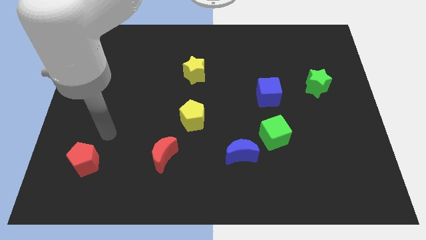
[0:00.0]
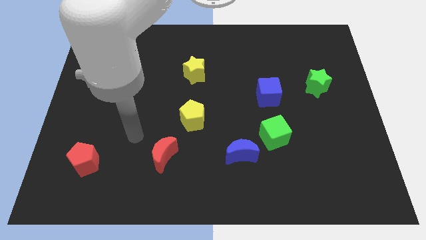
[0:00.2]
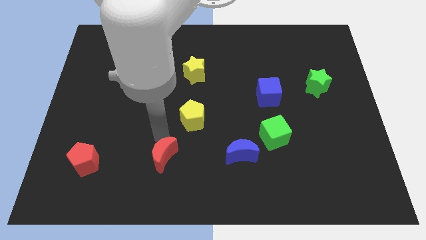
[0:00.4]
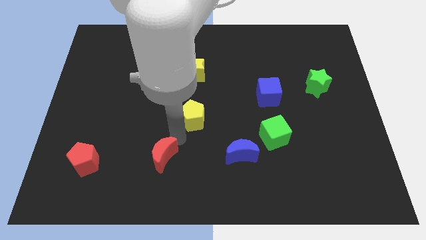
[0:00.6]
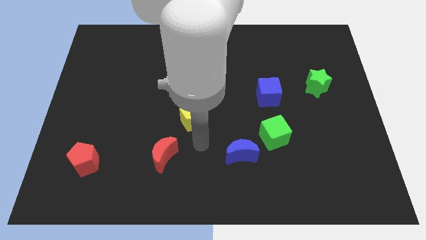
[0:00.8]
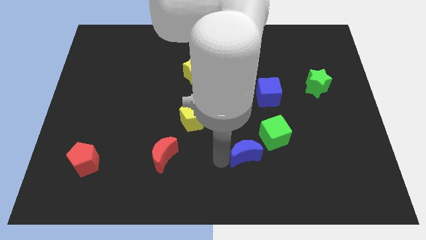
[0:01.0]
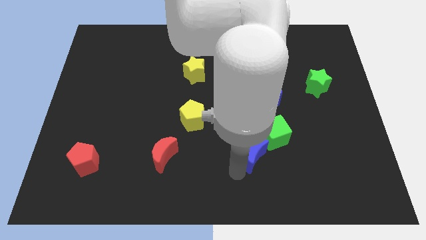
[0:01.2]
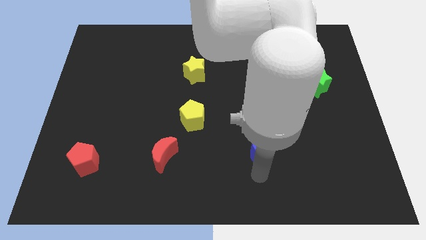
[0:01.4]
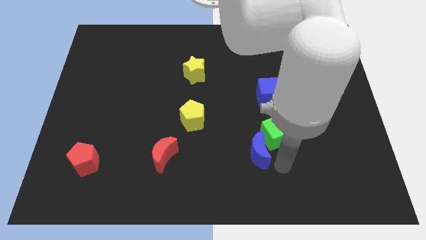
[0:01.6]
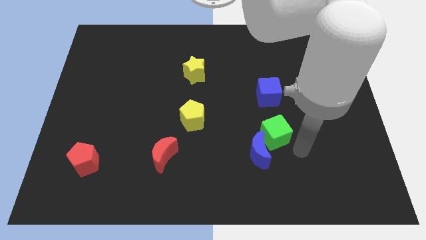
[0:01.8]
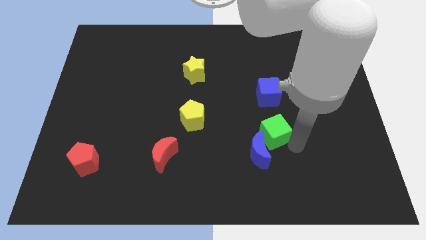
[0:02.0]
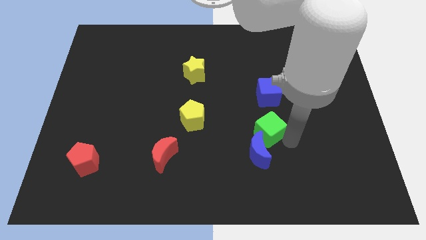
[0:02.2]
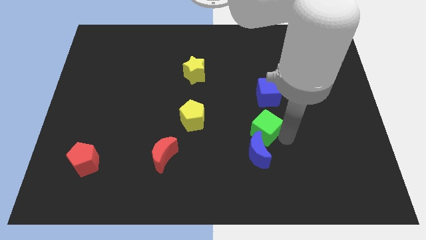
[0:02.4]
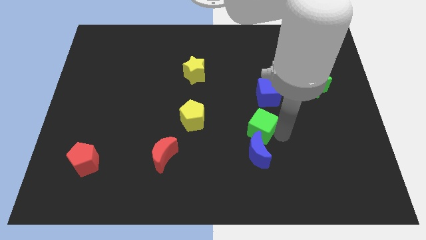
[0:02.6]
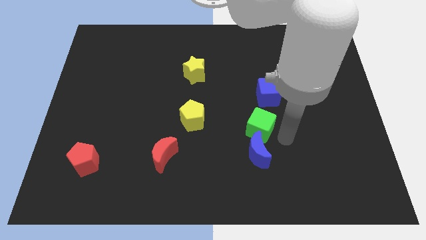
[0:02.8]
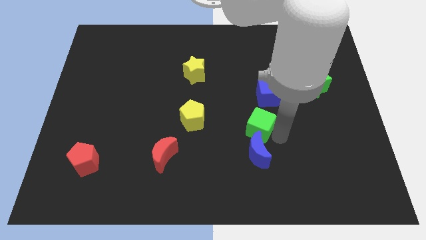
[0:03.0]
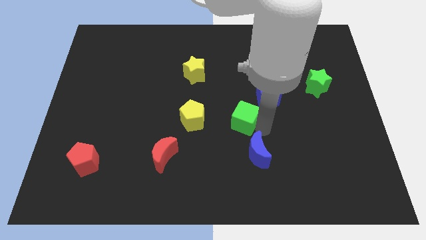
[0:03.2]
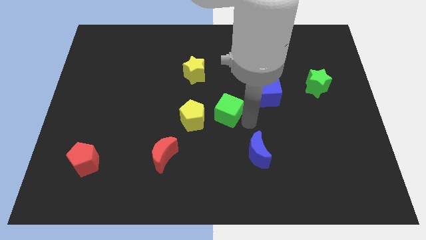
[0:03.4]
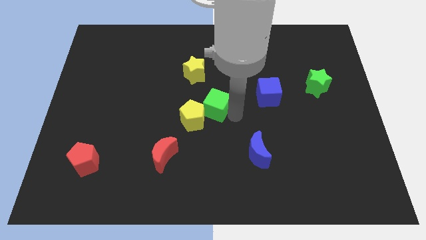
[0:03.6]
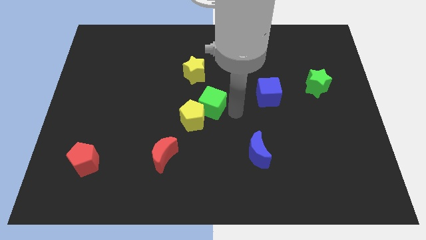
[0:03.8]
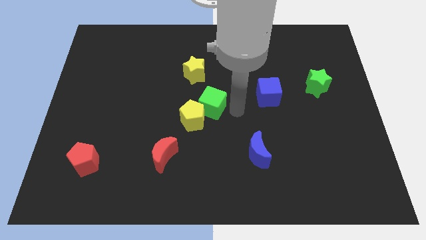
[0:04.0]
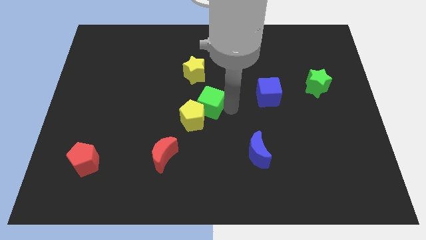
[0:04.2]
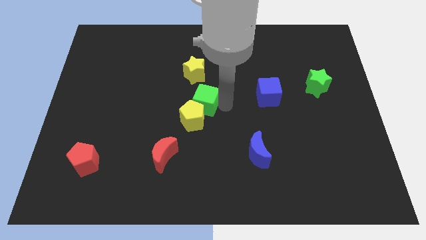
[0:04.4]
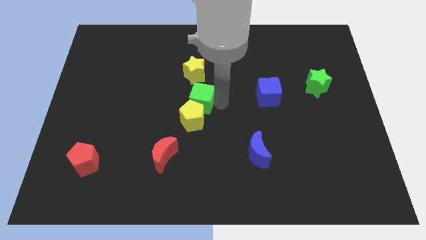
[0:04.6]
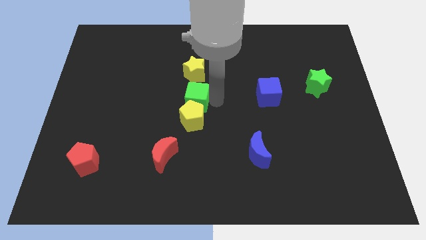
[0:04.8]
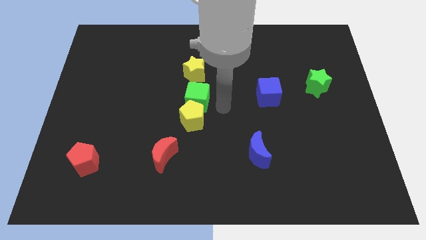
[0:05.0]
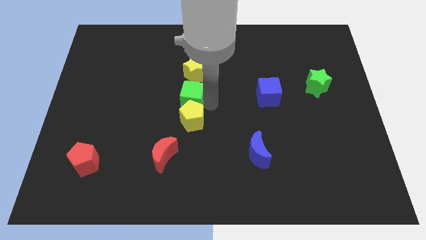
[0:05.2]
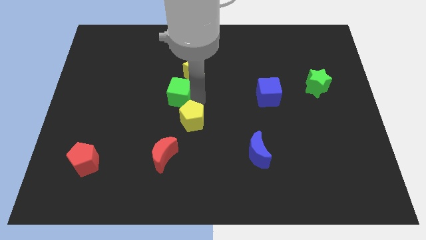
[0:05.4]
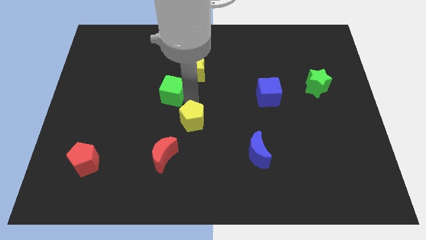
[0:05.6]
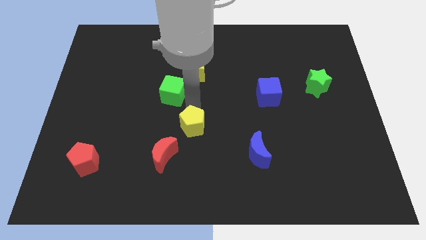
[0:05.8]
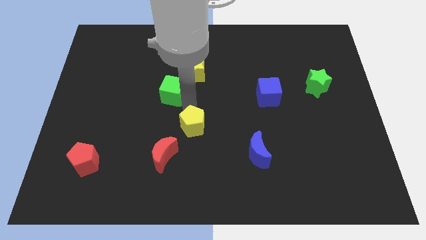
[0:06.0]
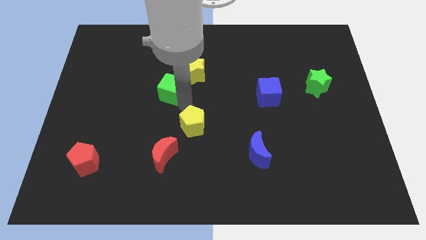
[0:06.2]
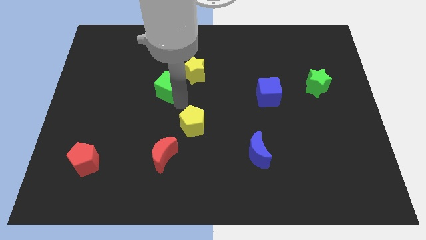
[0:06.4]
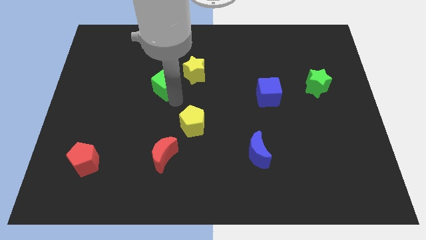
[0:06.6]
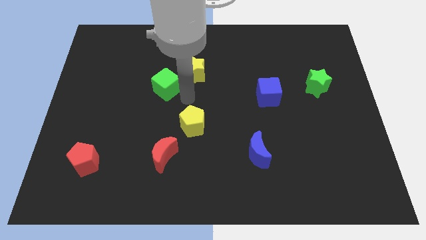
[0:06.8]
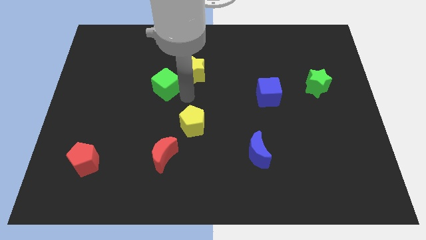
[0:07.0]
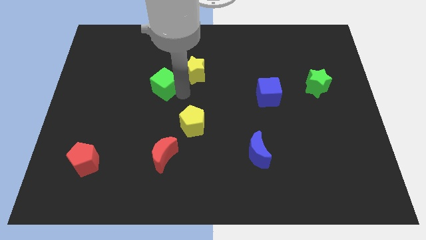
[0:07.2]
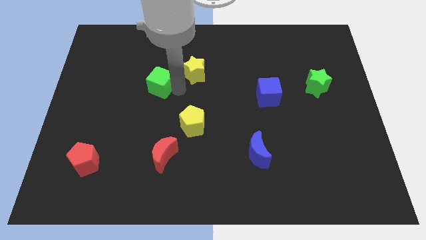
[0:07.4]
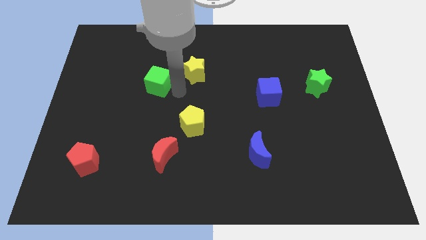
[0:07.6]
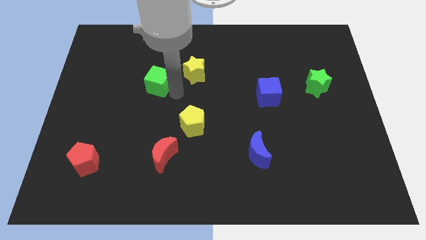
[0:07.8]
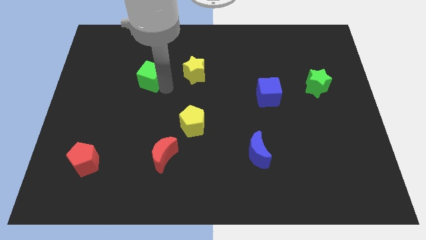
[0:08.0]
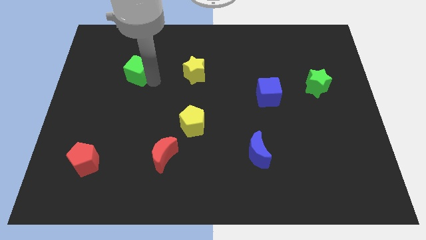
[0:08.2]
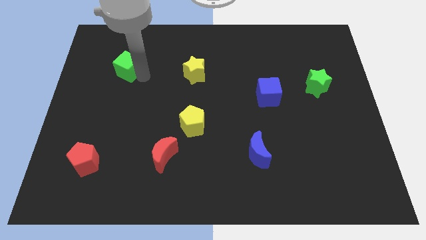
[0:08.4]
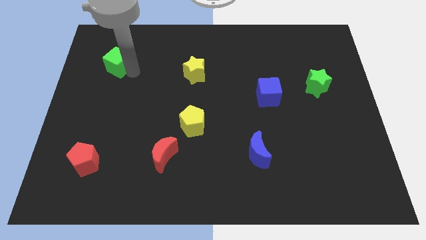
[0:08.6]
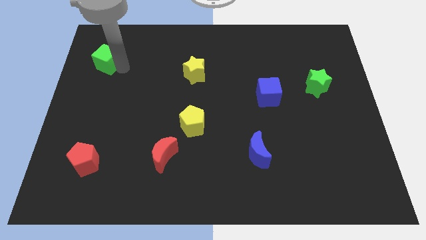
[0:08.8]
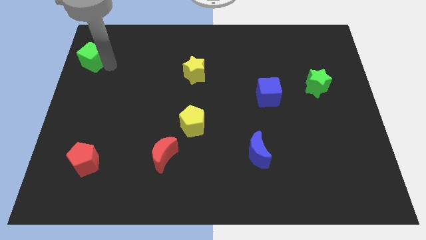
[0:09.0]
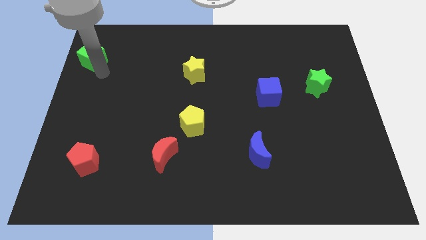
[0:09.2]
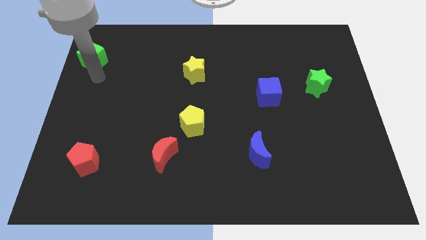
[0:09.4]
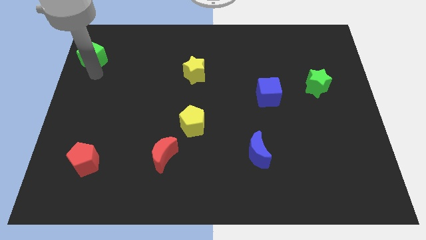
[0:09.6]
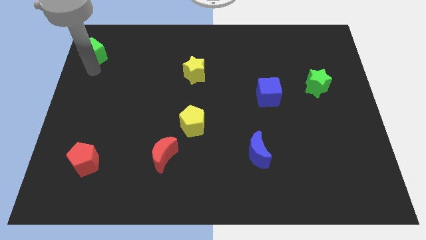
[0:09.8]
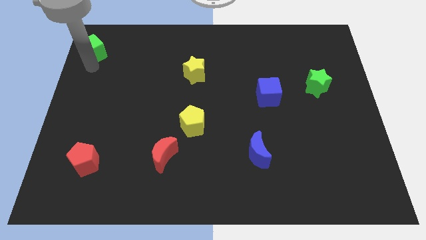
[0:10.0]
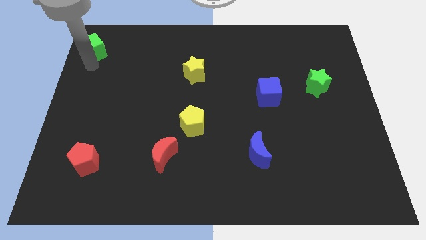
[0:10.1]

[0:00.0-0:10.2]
move the green cube to the top left corner
